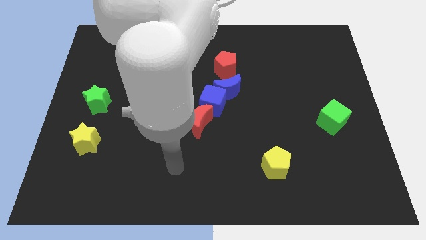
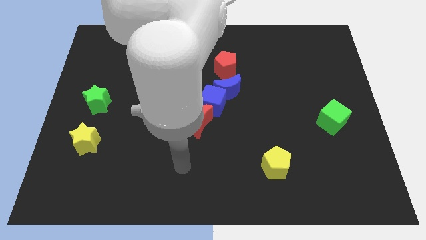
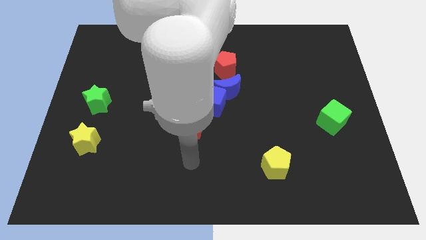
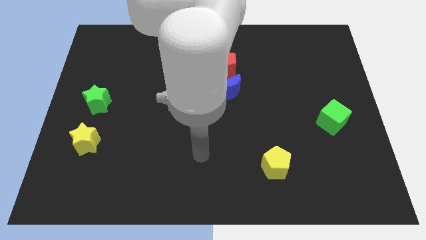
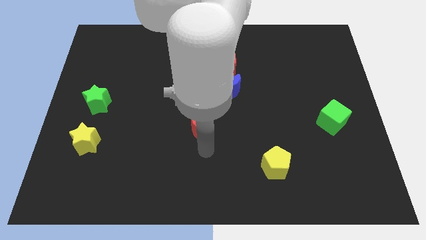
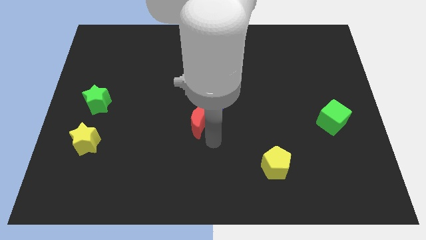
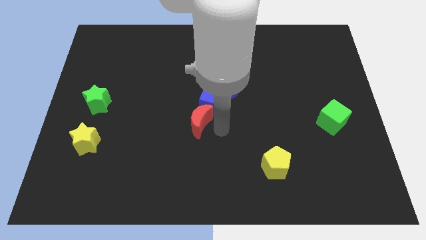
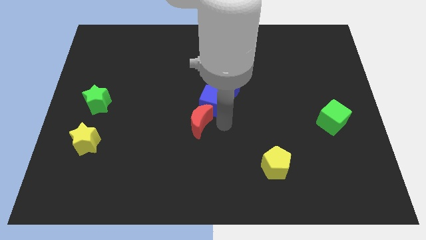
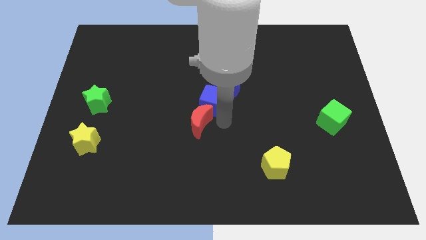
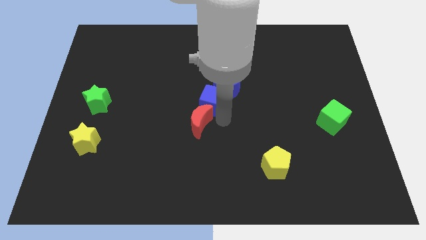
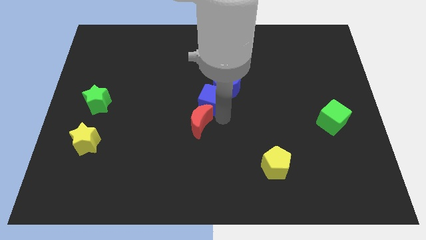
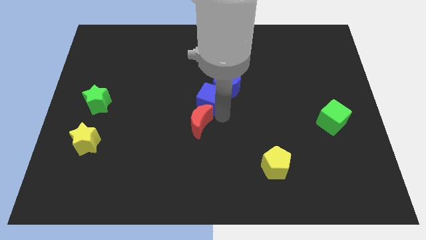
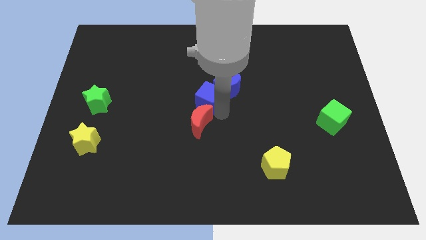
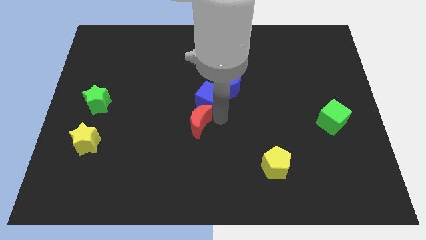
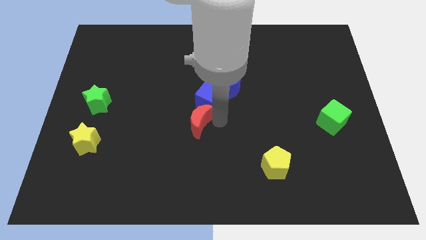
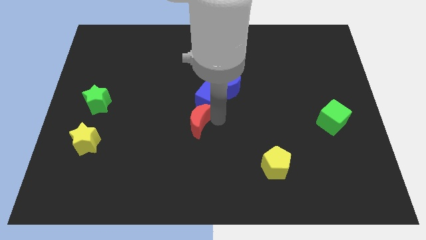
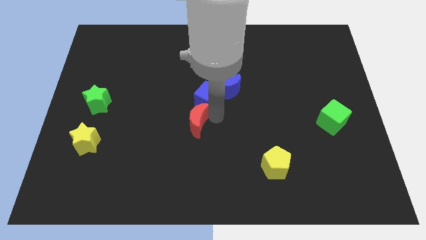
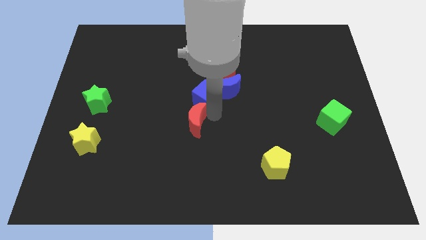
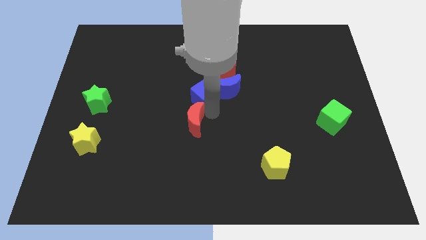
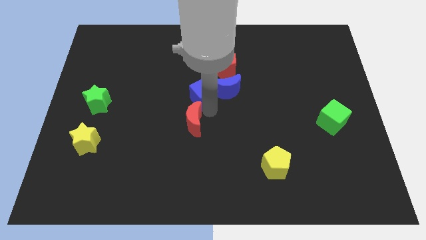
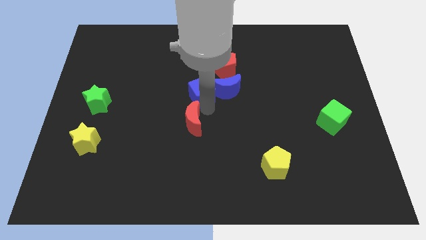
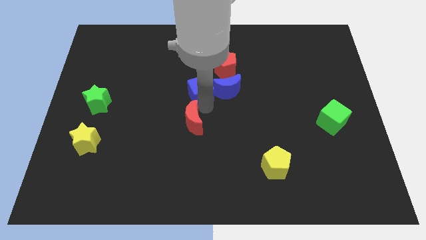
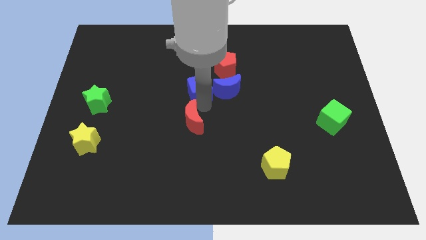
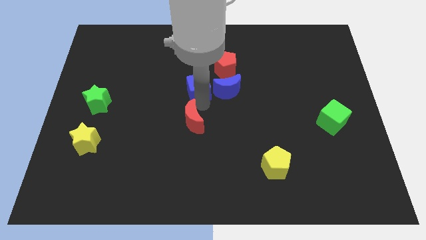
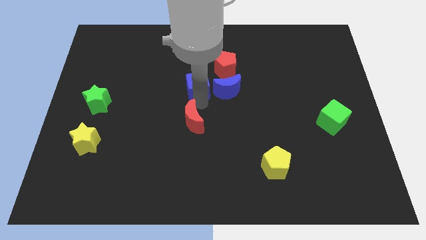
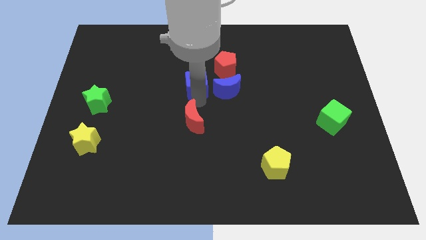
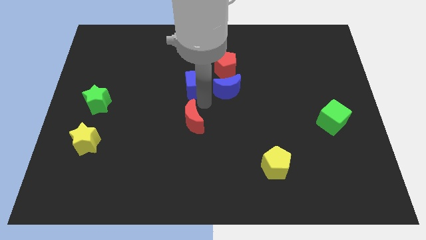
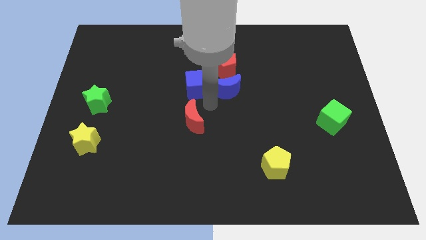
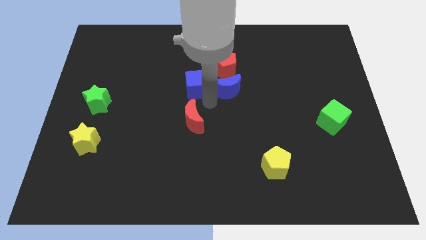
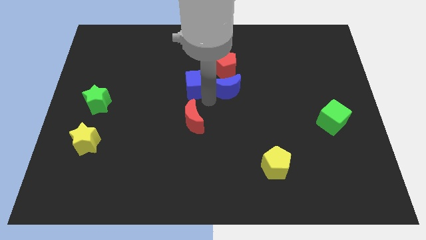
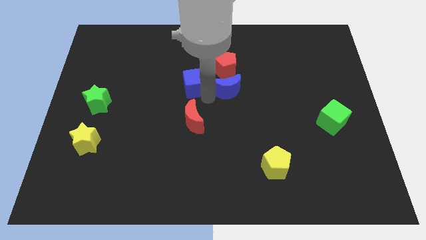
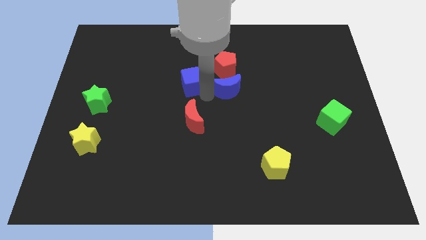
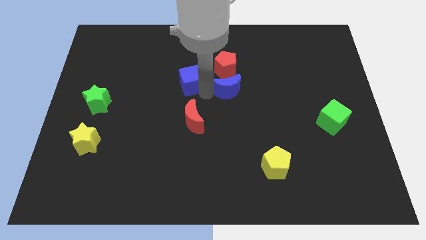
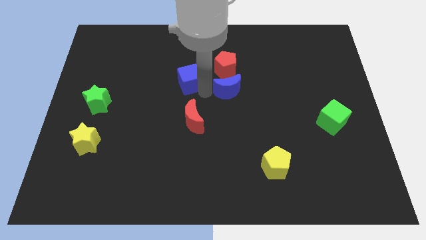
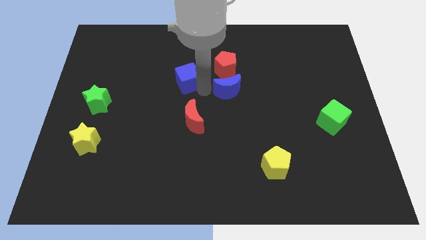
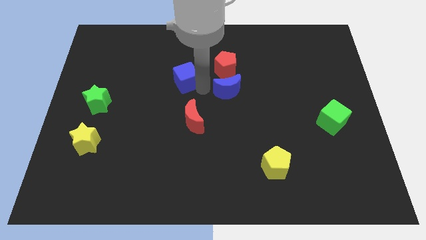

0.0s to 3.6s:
pull the blue cube apart from the blue moon and red moon

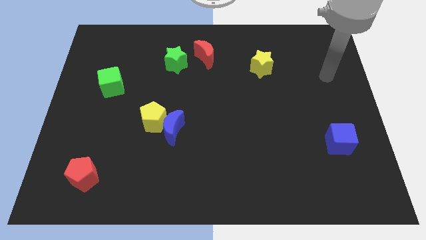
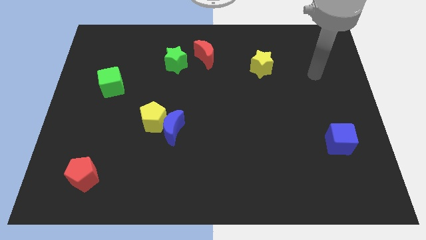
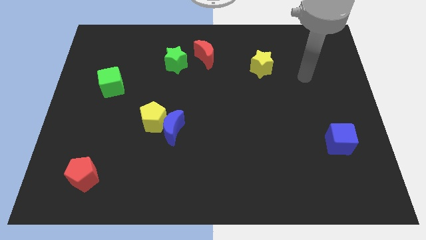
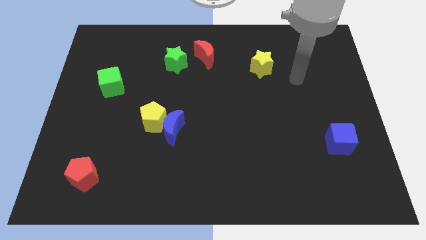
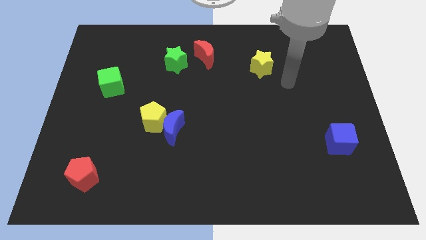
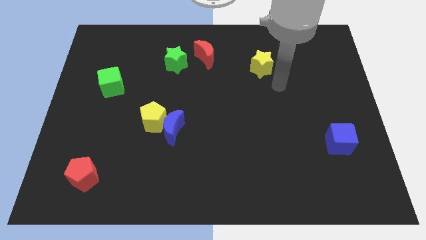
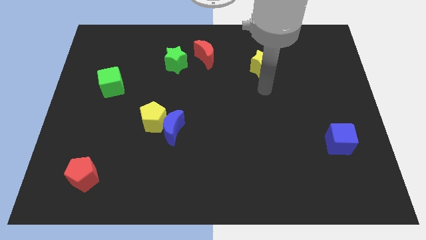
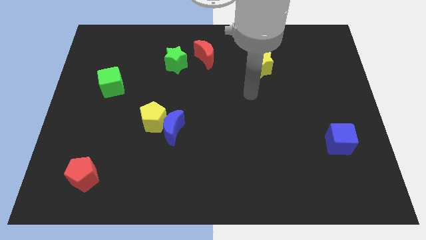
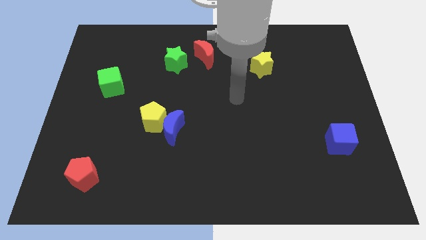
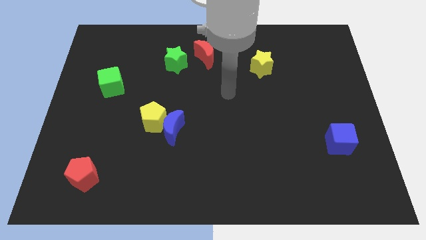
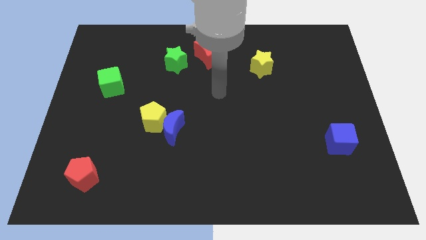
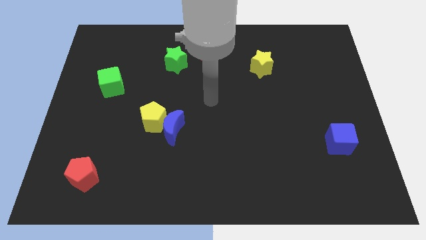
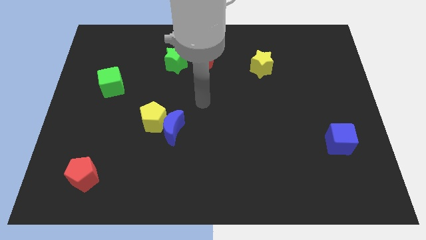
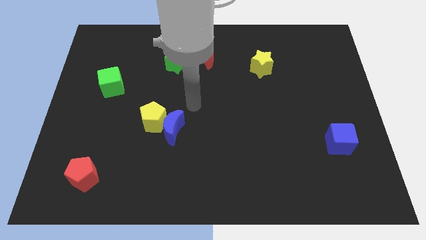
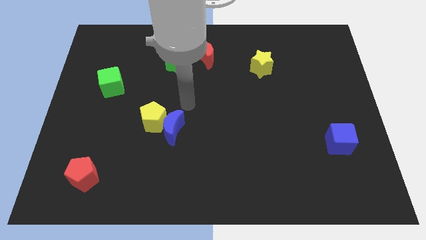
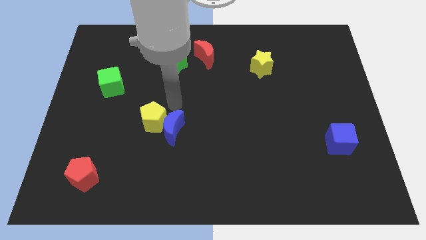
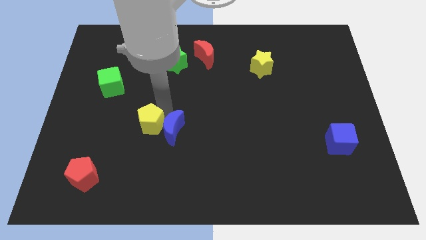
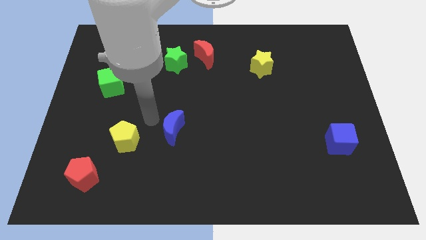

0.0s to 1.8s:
pull the blue moon apart from the yellow pentagon

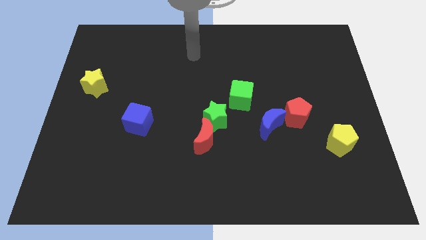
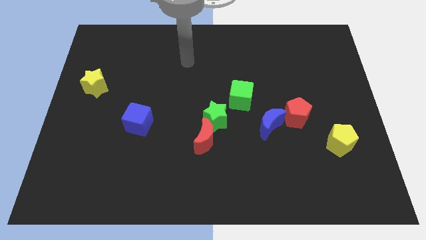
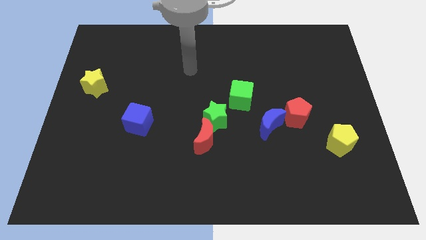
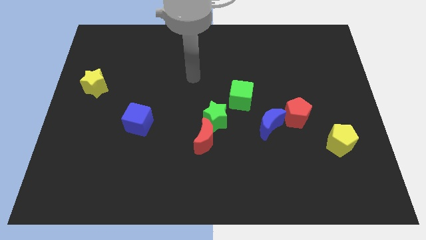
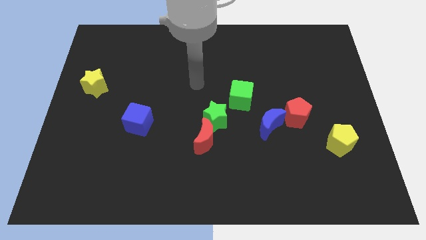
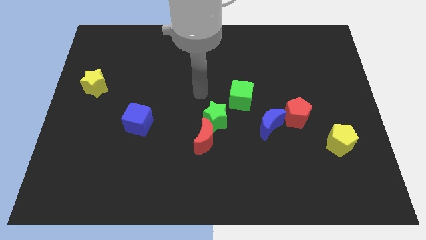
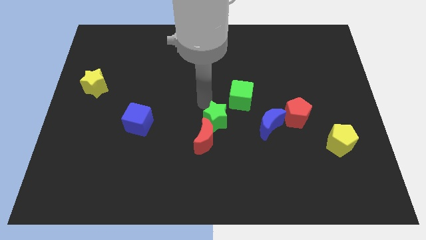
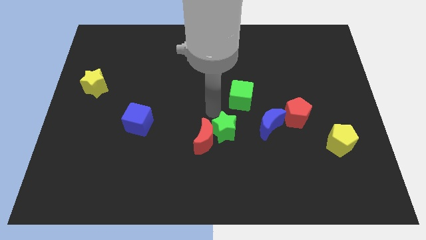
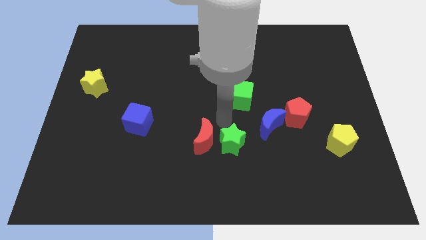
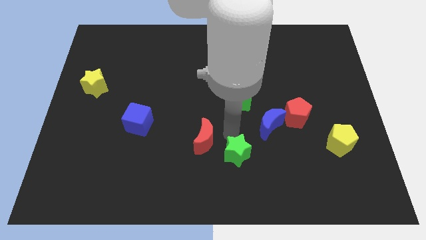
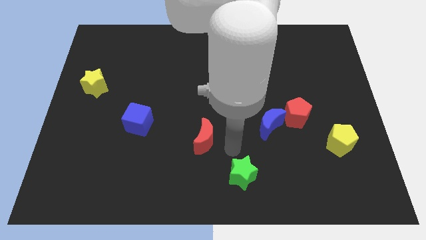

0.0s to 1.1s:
separate the red moon from the green star

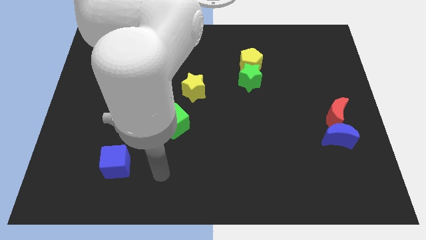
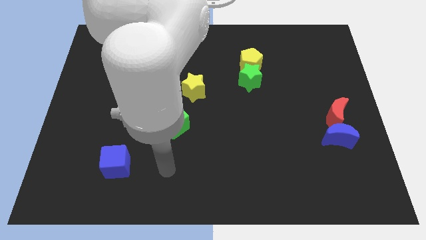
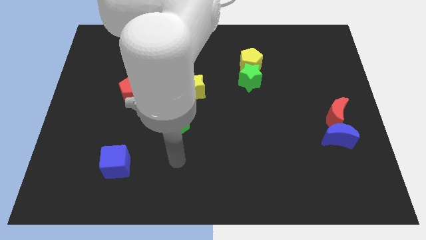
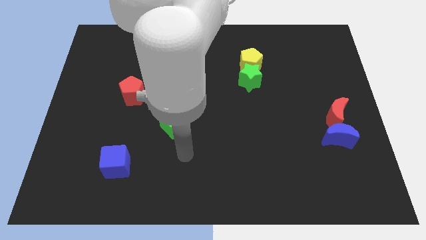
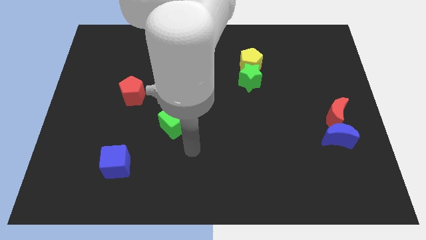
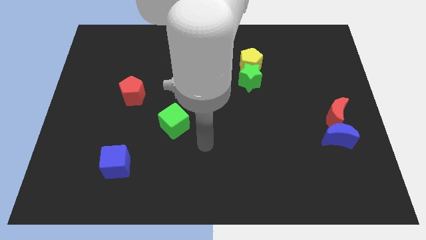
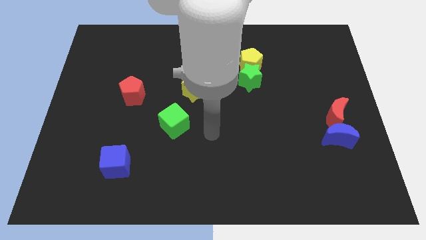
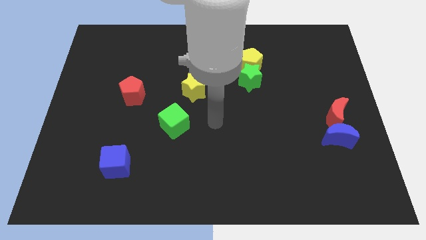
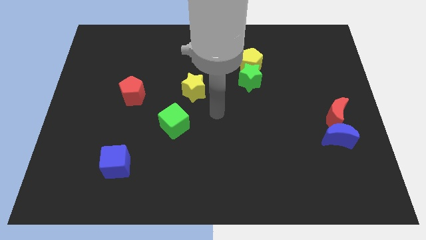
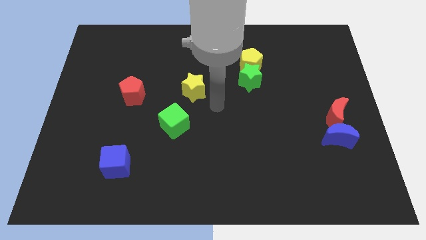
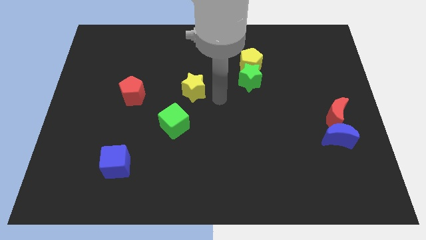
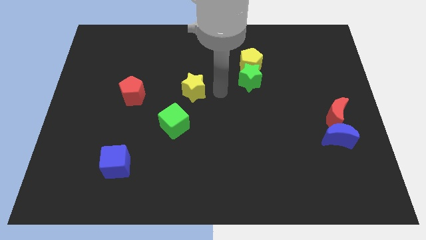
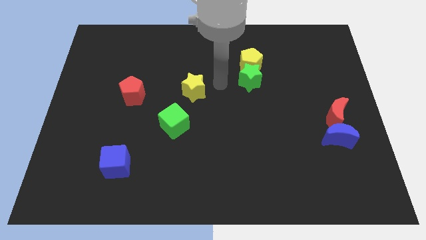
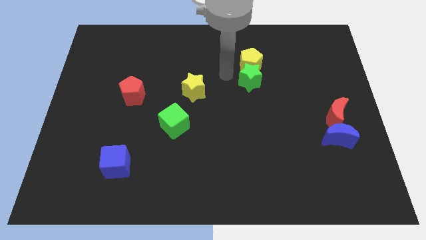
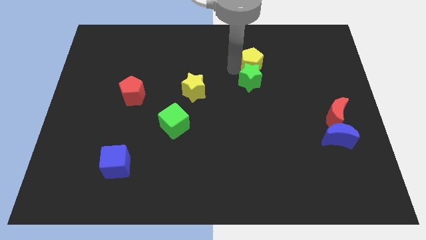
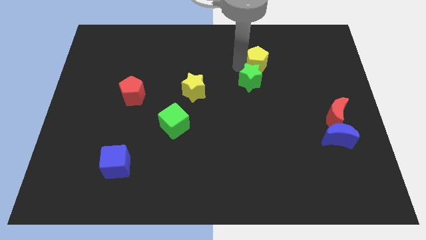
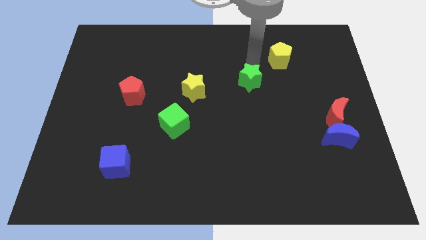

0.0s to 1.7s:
pull the green star apart from the yellow pentagon

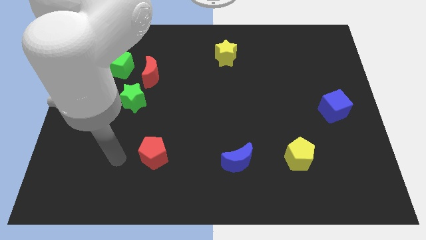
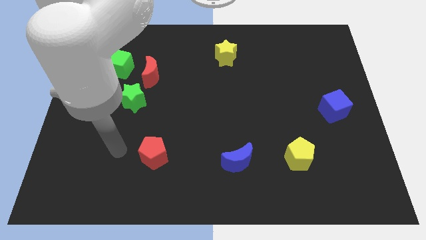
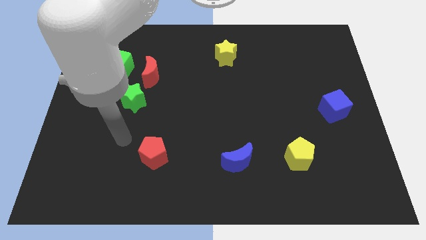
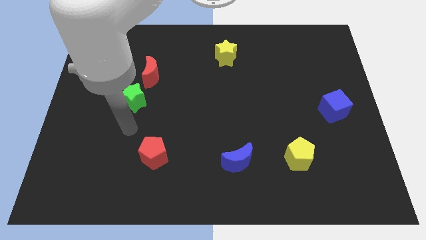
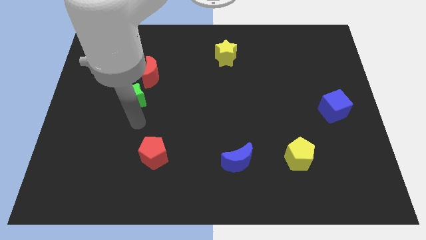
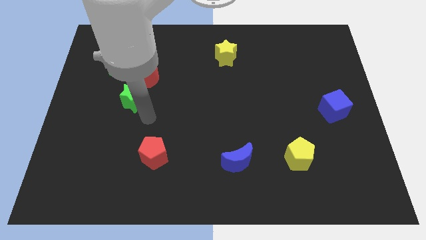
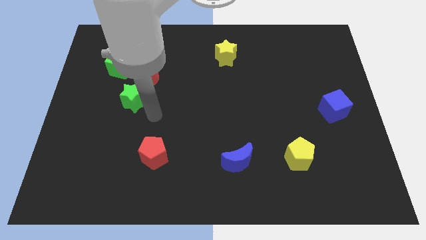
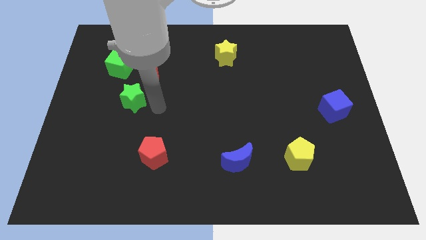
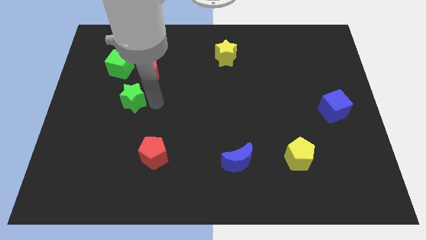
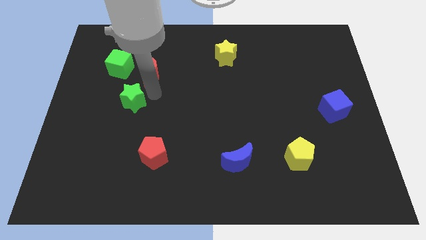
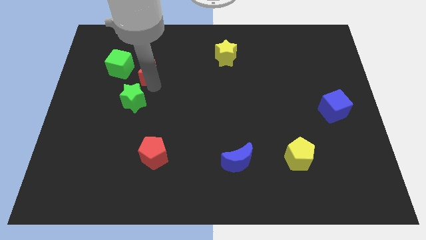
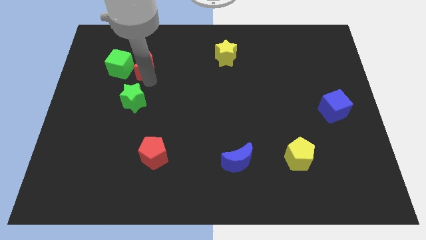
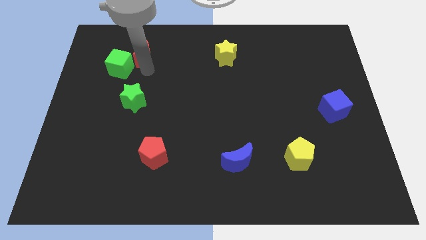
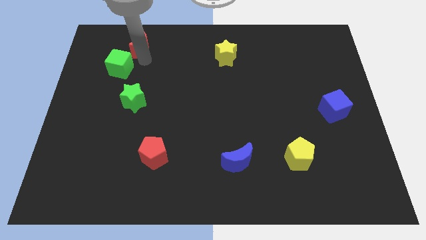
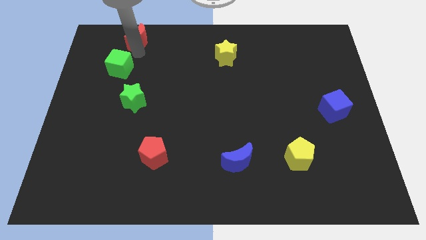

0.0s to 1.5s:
separate the green cube from the red moon
